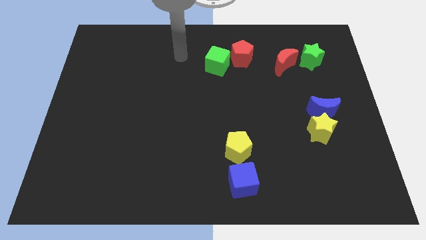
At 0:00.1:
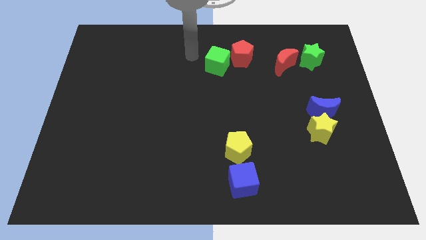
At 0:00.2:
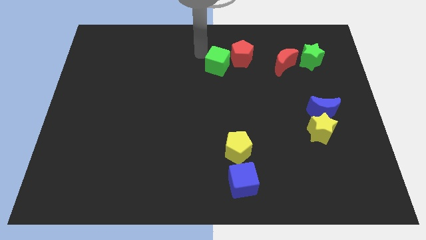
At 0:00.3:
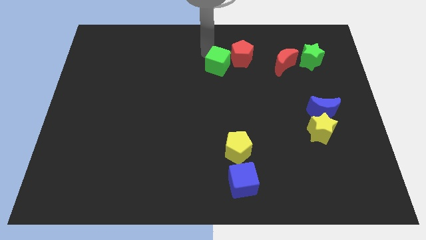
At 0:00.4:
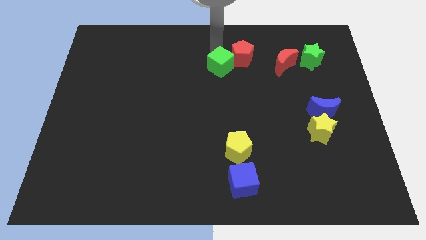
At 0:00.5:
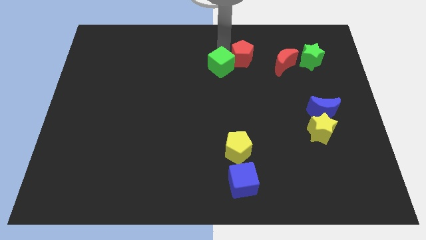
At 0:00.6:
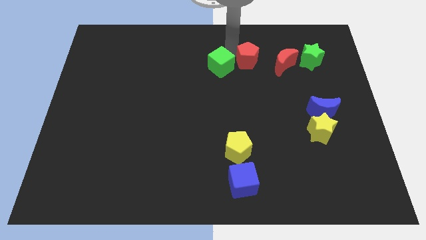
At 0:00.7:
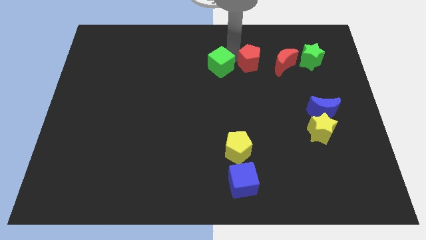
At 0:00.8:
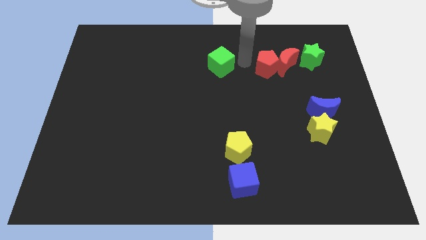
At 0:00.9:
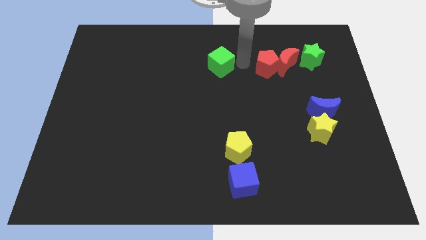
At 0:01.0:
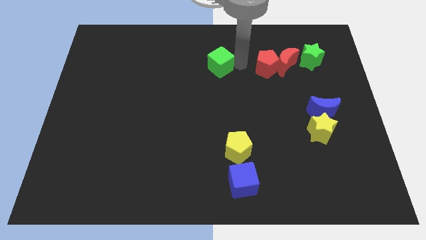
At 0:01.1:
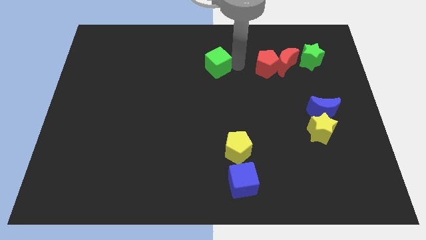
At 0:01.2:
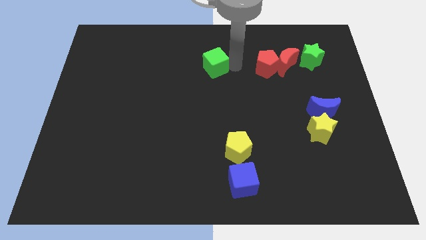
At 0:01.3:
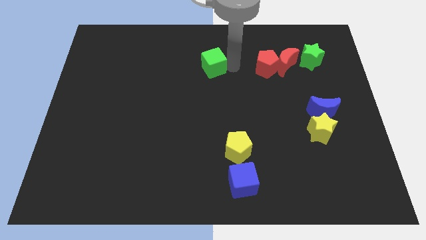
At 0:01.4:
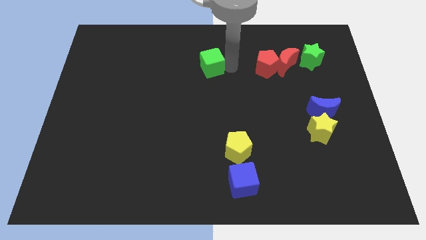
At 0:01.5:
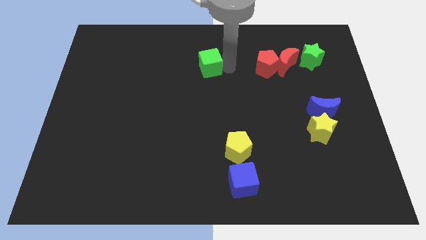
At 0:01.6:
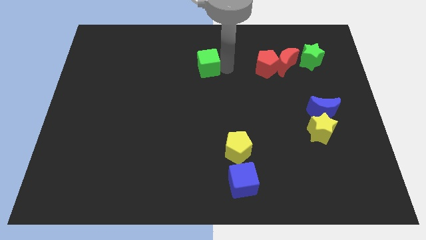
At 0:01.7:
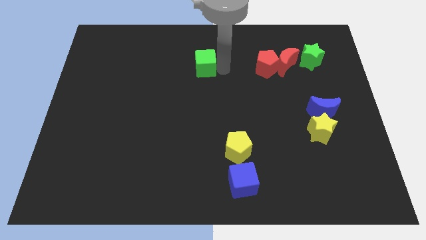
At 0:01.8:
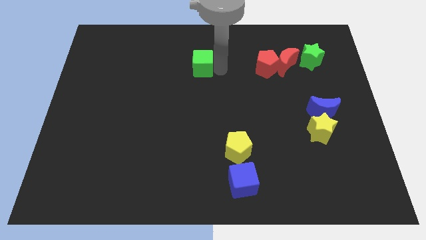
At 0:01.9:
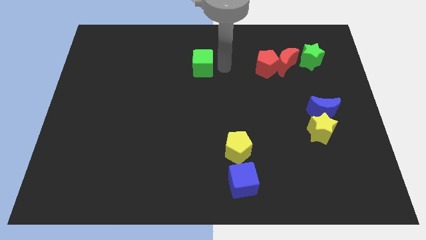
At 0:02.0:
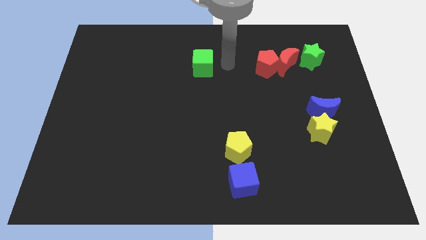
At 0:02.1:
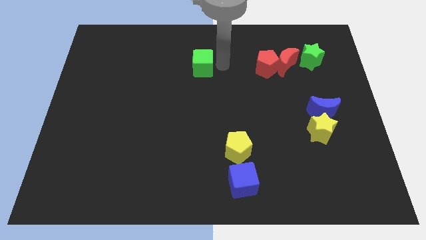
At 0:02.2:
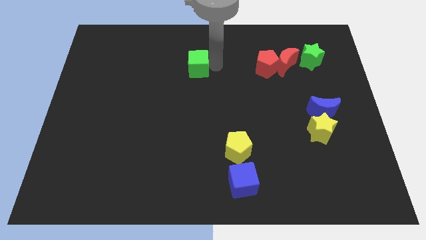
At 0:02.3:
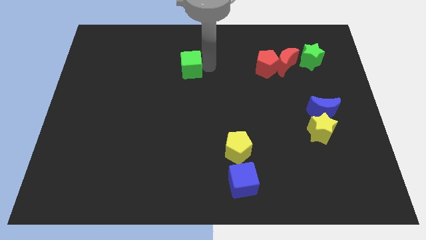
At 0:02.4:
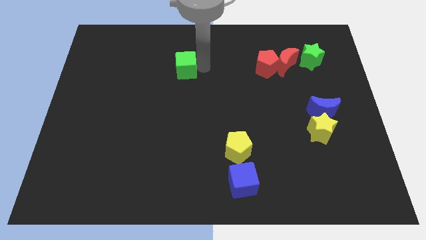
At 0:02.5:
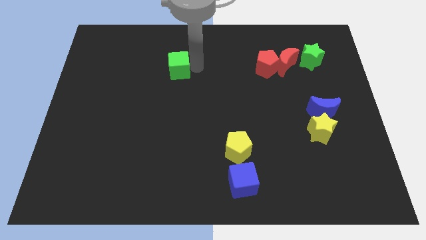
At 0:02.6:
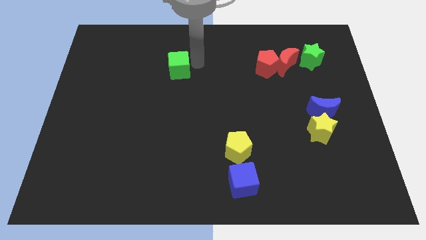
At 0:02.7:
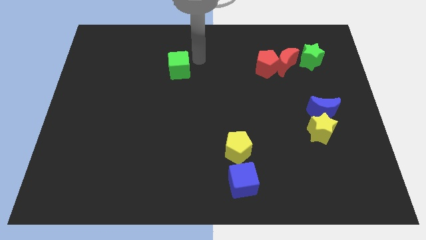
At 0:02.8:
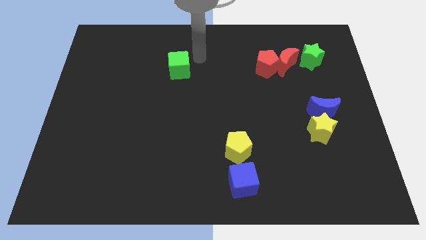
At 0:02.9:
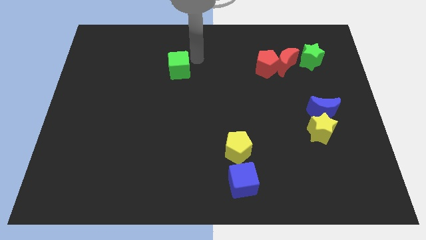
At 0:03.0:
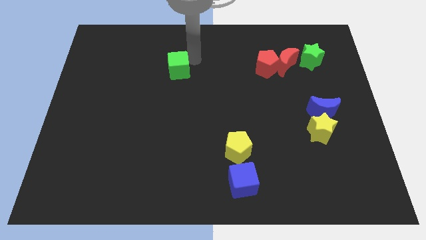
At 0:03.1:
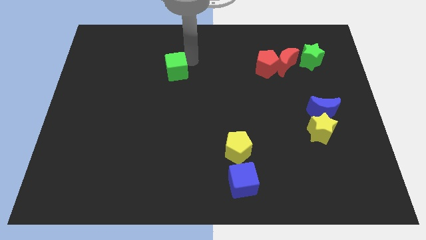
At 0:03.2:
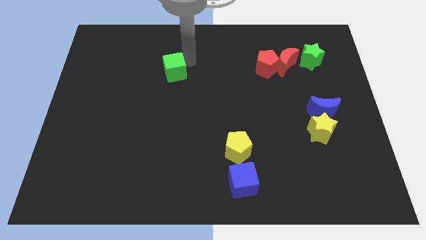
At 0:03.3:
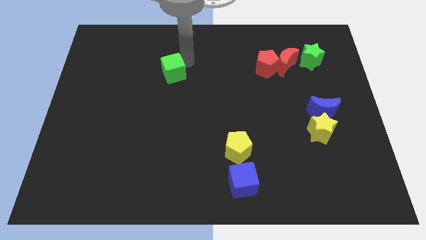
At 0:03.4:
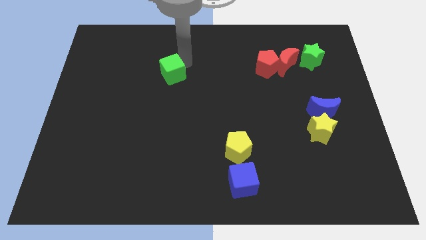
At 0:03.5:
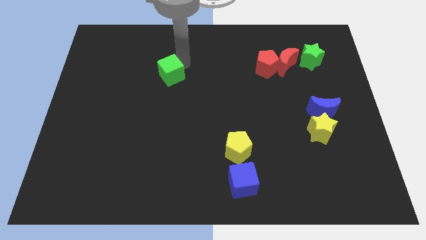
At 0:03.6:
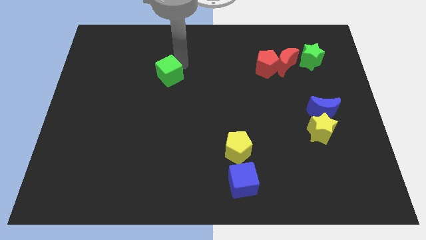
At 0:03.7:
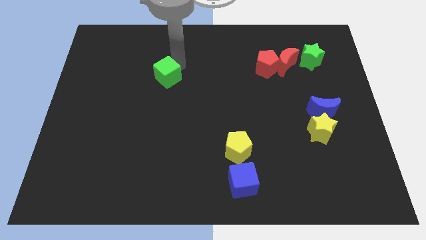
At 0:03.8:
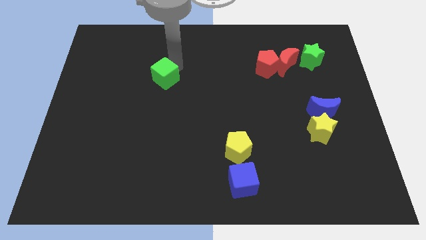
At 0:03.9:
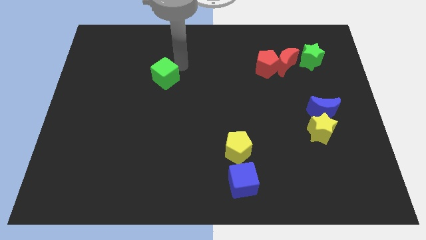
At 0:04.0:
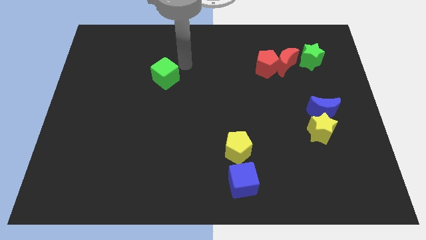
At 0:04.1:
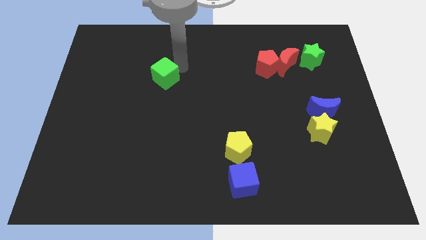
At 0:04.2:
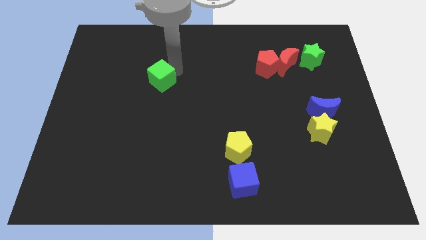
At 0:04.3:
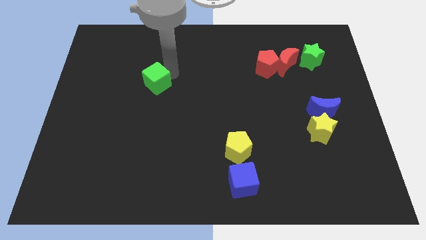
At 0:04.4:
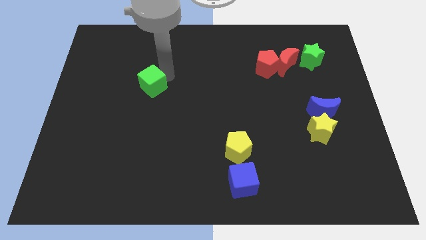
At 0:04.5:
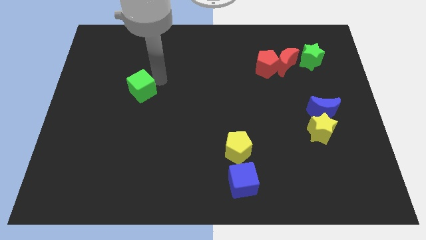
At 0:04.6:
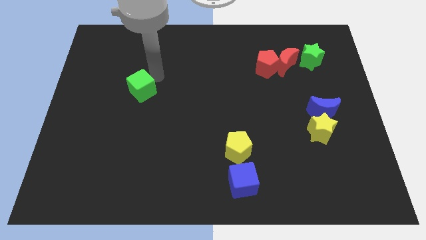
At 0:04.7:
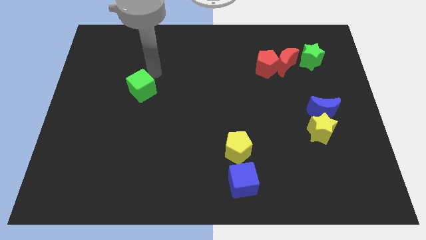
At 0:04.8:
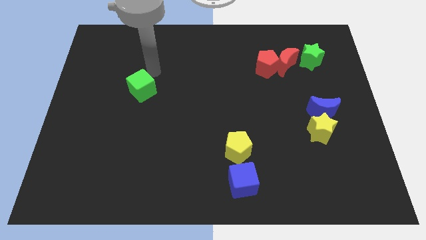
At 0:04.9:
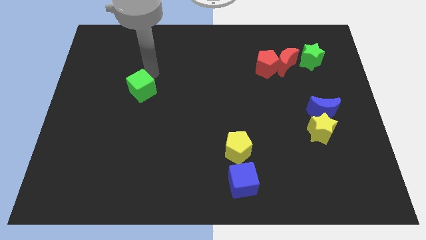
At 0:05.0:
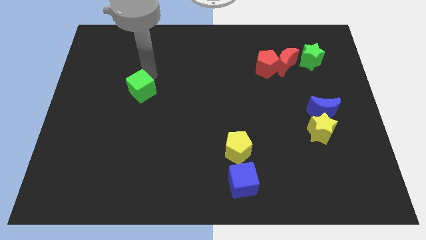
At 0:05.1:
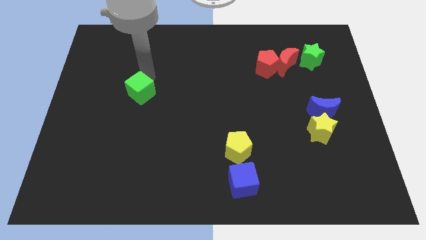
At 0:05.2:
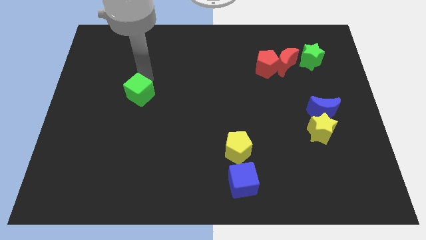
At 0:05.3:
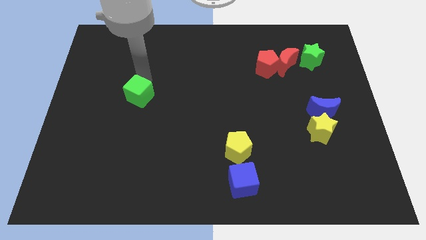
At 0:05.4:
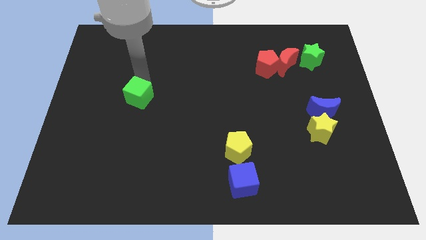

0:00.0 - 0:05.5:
push the green cube down and then to the left

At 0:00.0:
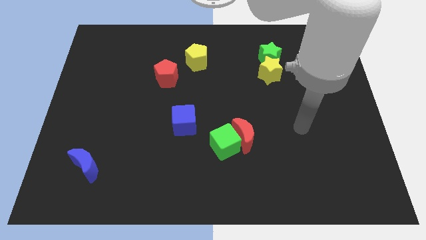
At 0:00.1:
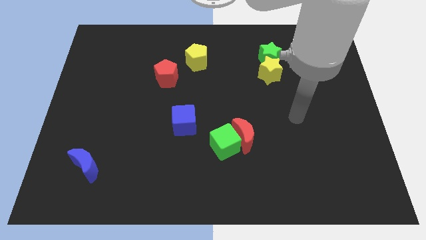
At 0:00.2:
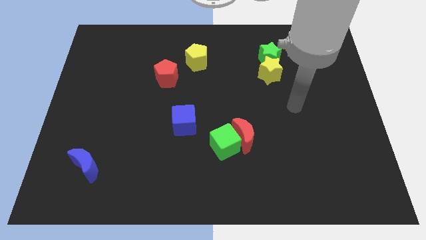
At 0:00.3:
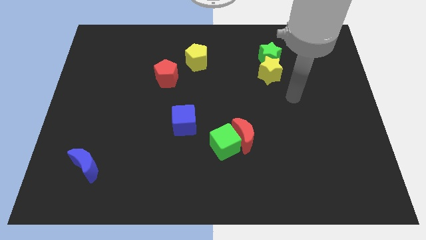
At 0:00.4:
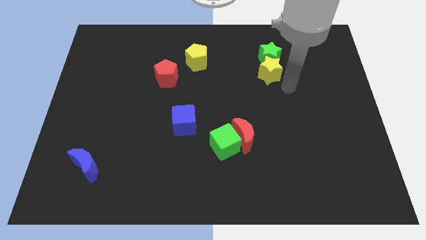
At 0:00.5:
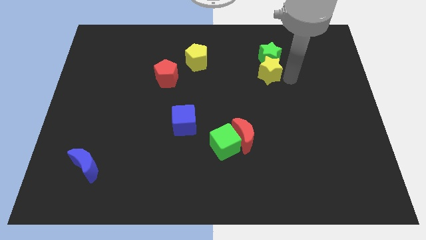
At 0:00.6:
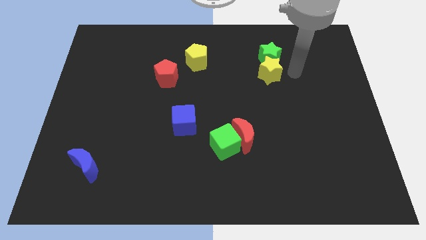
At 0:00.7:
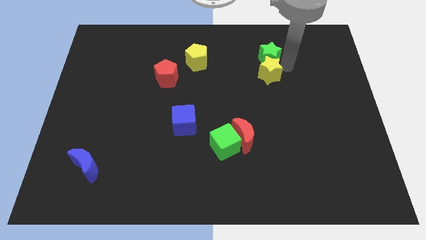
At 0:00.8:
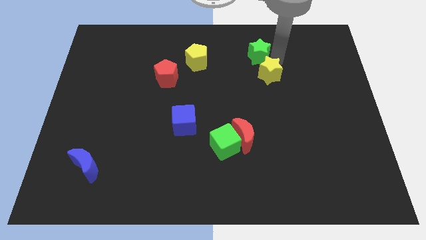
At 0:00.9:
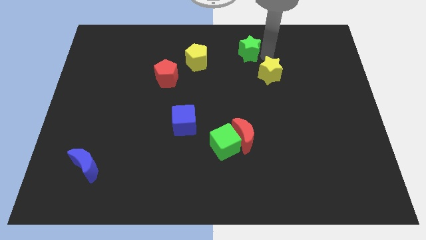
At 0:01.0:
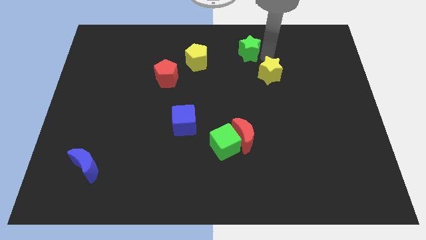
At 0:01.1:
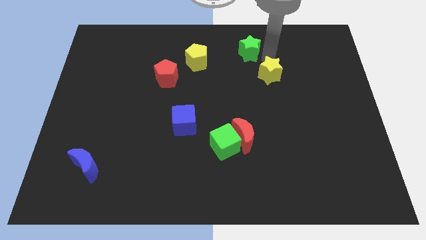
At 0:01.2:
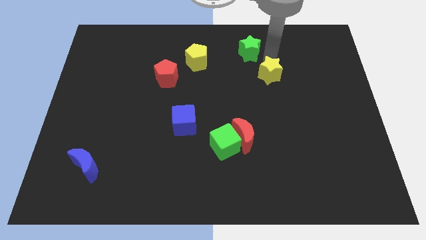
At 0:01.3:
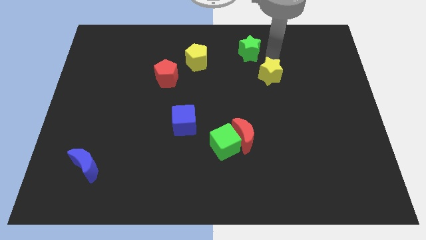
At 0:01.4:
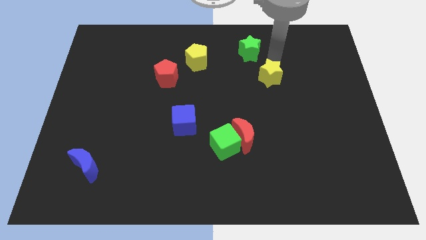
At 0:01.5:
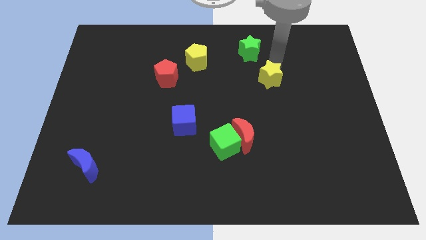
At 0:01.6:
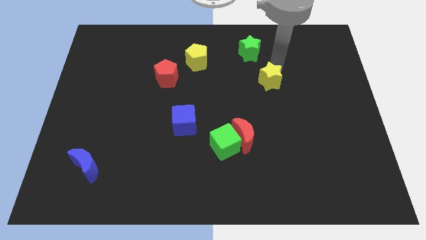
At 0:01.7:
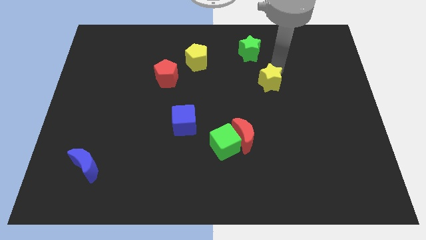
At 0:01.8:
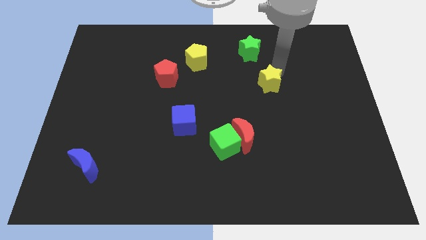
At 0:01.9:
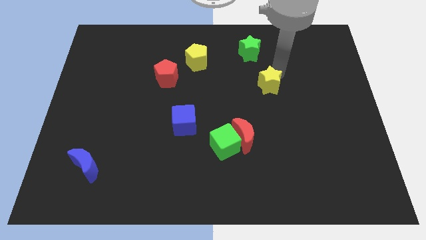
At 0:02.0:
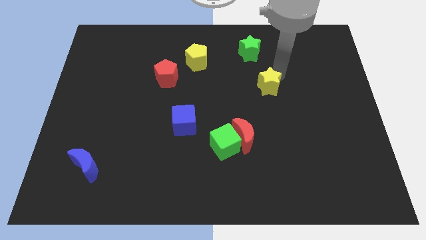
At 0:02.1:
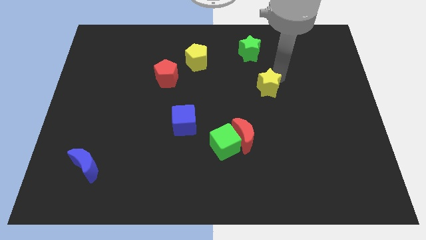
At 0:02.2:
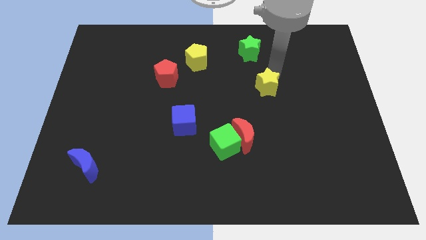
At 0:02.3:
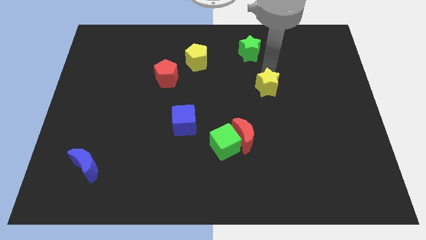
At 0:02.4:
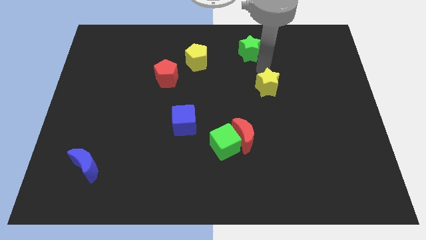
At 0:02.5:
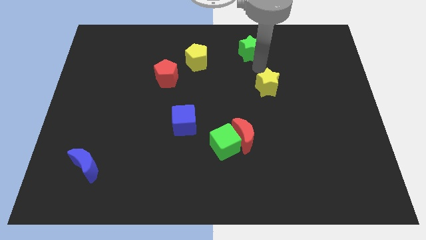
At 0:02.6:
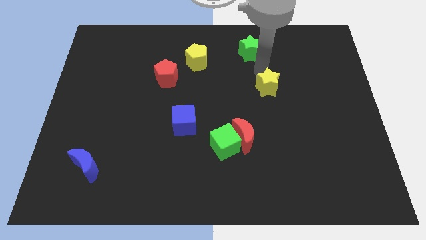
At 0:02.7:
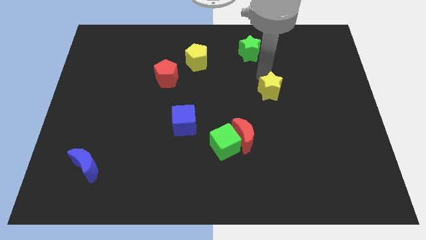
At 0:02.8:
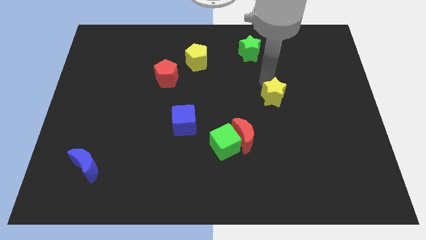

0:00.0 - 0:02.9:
slightly move the yellow star downwards
